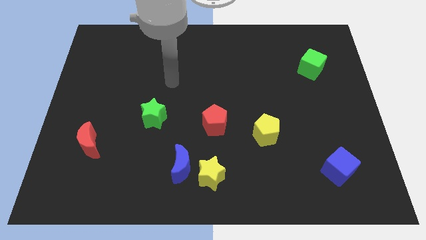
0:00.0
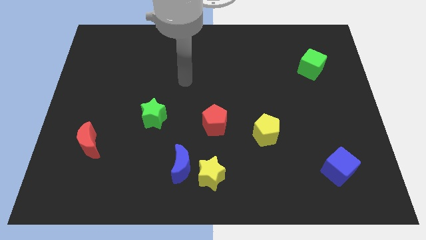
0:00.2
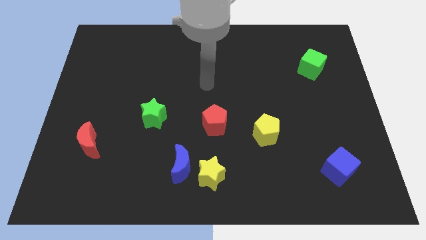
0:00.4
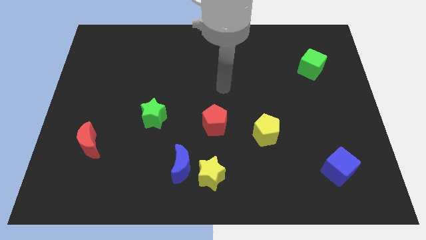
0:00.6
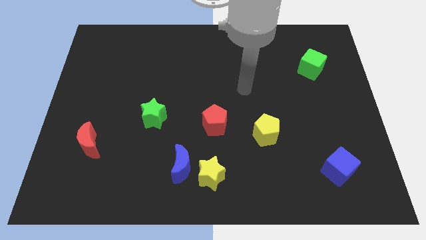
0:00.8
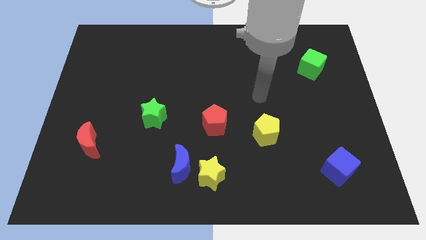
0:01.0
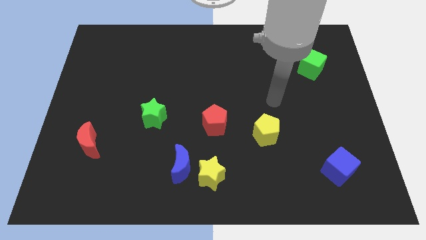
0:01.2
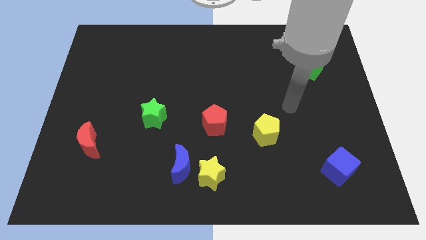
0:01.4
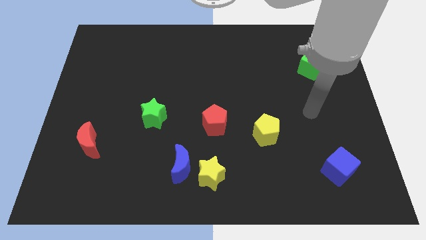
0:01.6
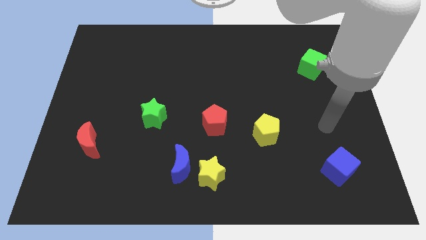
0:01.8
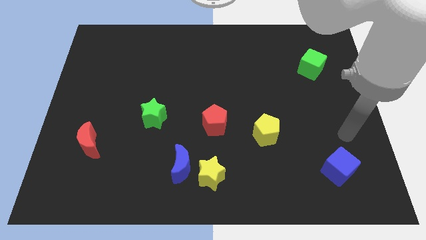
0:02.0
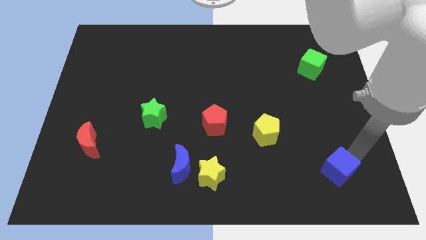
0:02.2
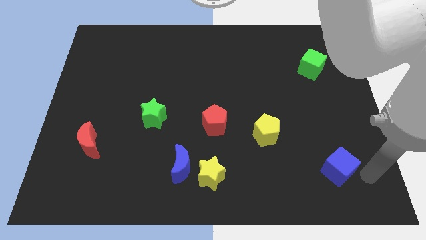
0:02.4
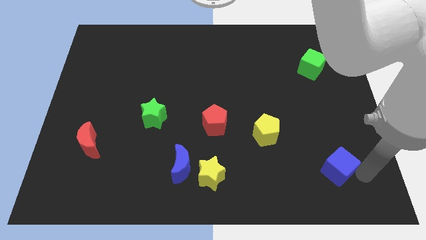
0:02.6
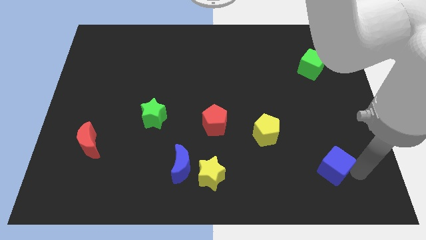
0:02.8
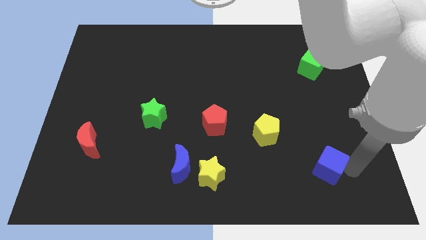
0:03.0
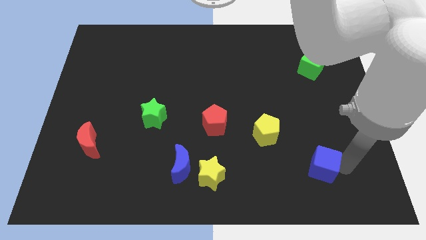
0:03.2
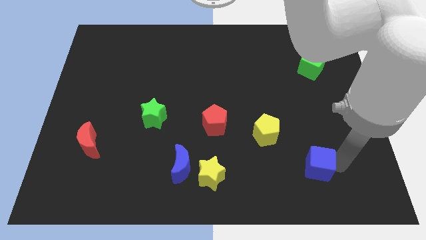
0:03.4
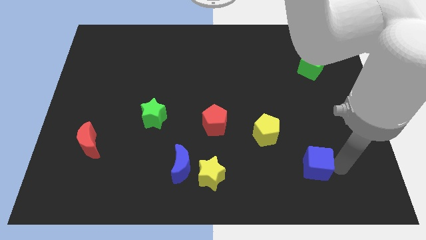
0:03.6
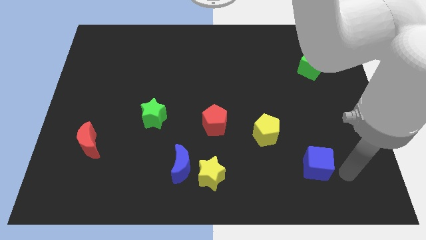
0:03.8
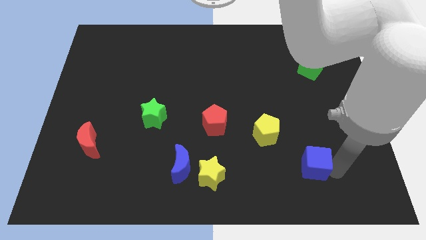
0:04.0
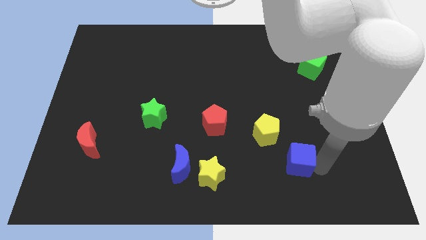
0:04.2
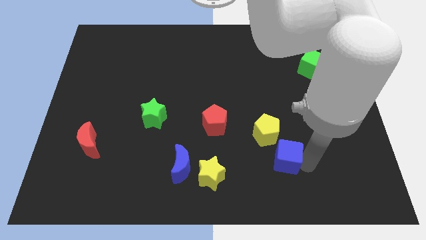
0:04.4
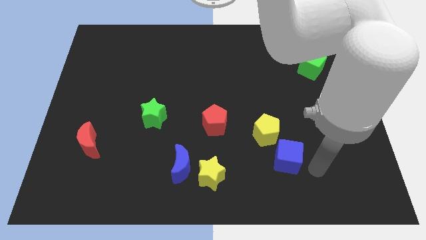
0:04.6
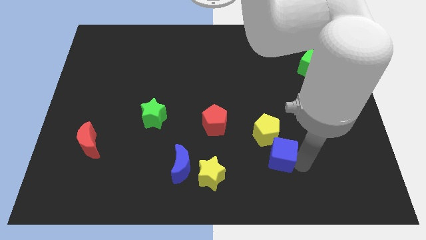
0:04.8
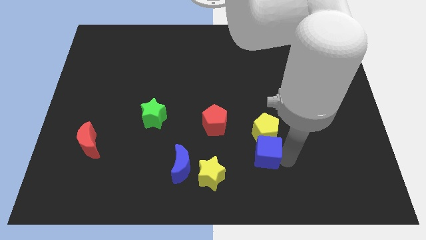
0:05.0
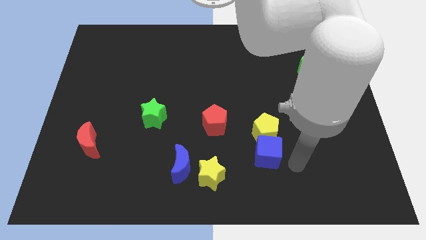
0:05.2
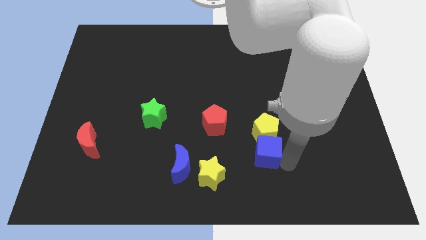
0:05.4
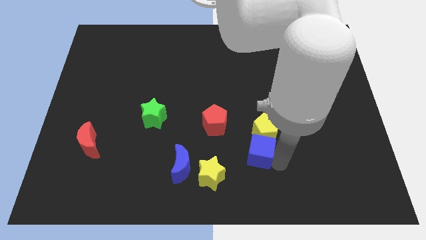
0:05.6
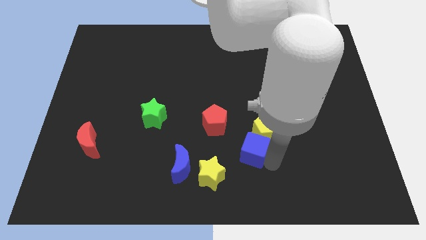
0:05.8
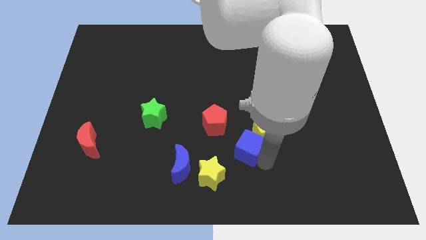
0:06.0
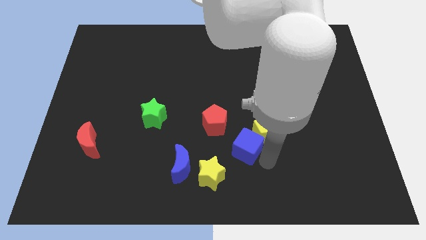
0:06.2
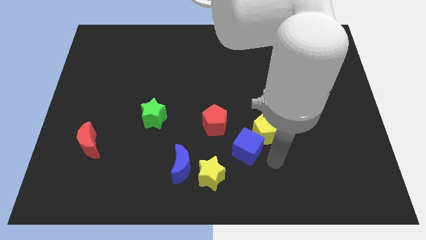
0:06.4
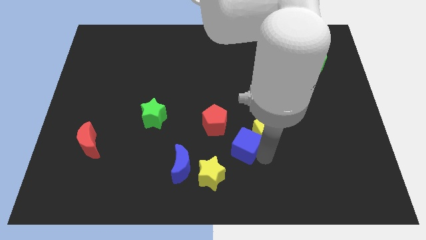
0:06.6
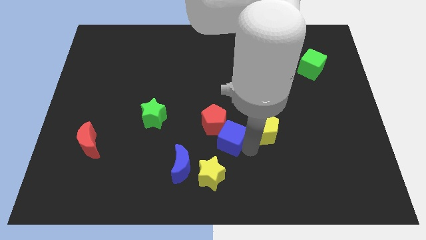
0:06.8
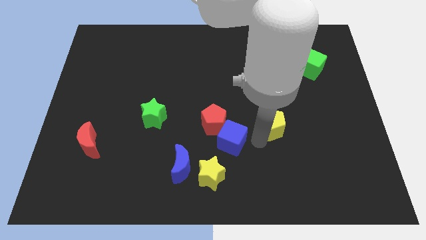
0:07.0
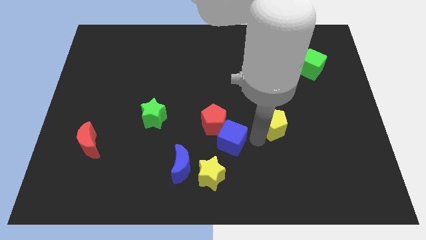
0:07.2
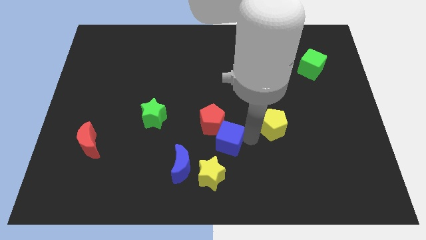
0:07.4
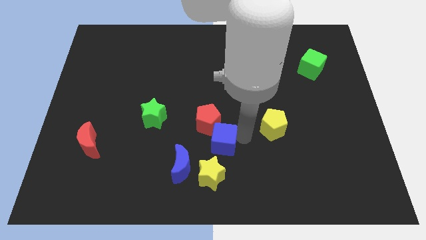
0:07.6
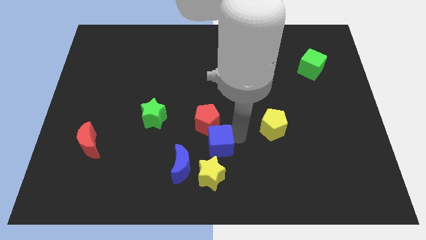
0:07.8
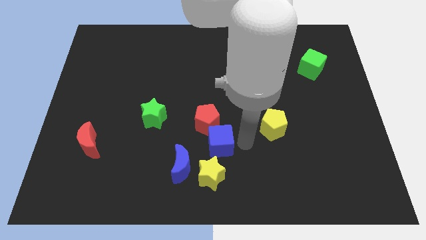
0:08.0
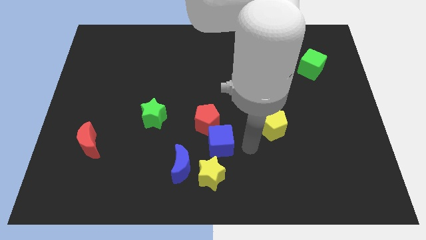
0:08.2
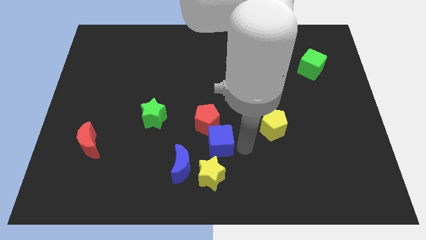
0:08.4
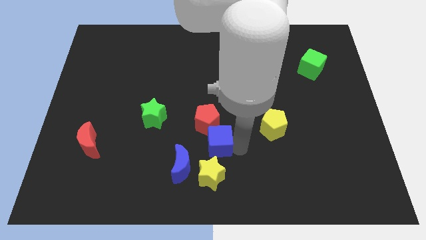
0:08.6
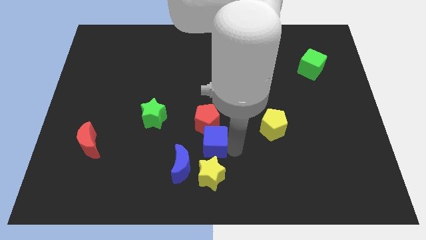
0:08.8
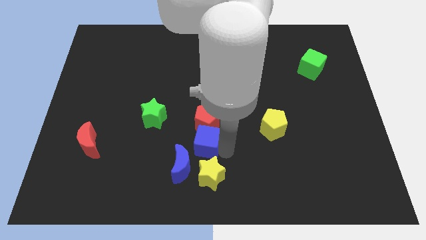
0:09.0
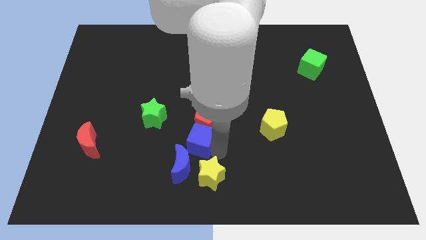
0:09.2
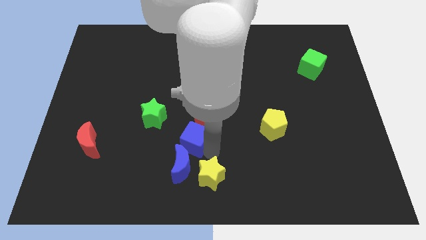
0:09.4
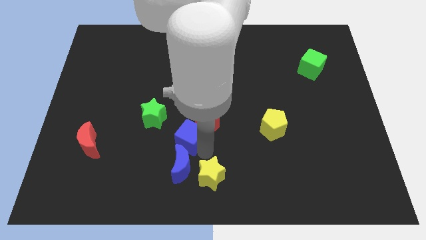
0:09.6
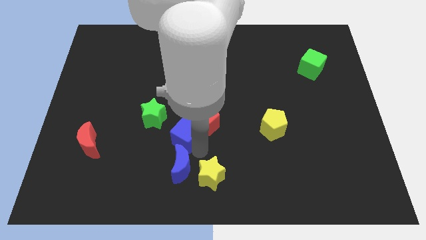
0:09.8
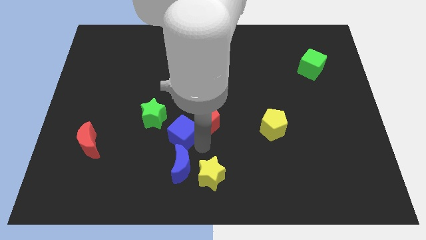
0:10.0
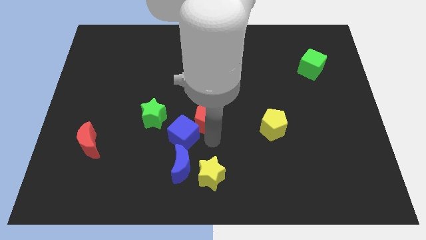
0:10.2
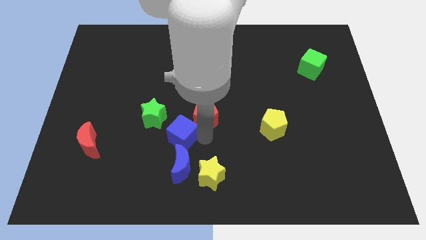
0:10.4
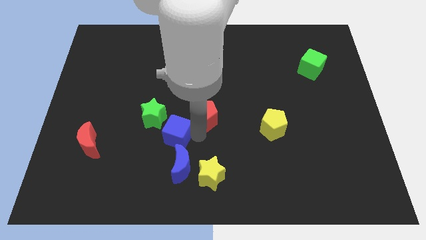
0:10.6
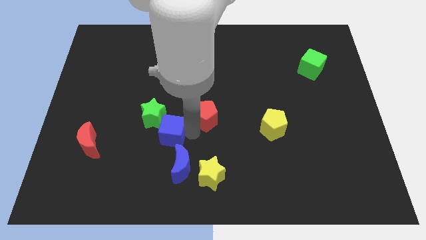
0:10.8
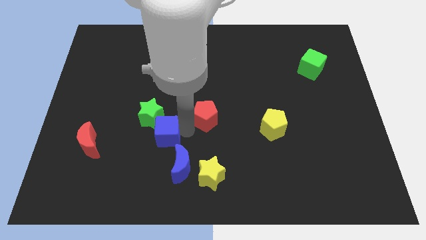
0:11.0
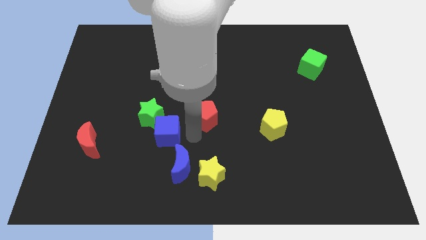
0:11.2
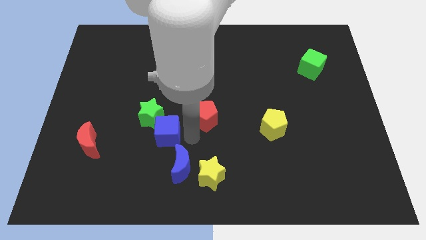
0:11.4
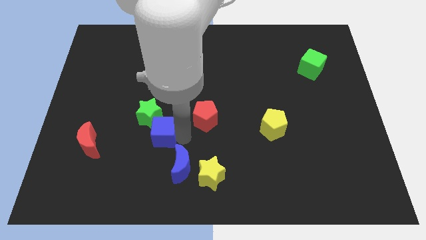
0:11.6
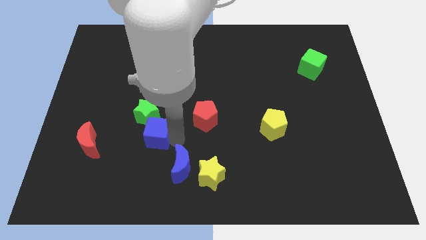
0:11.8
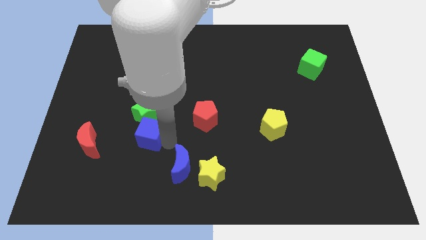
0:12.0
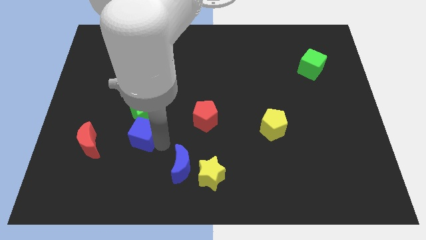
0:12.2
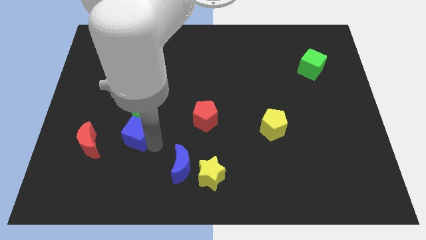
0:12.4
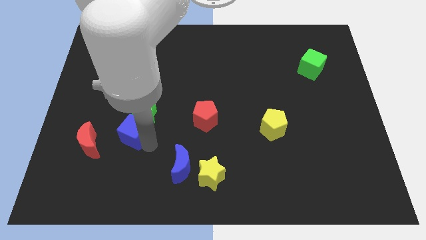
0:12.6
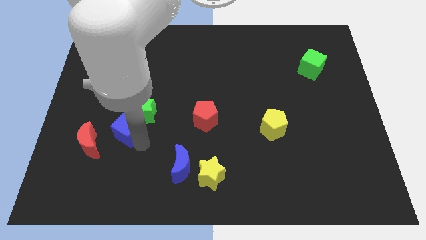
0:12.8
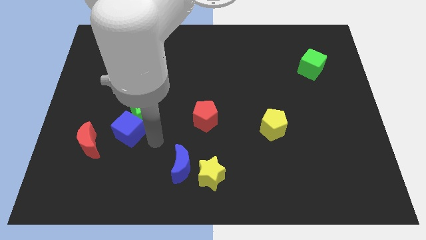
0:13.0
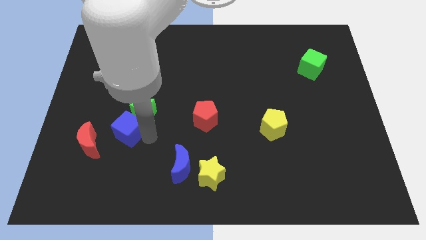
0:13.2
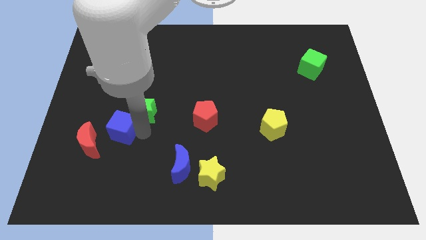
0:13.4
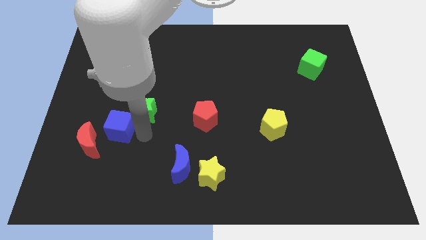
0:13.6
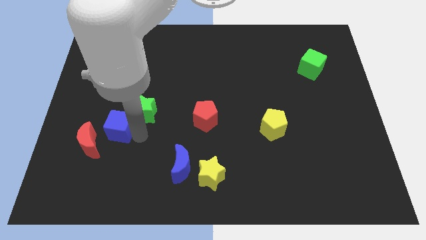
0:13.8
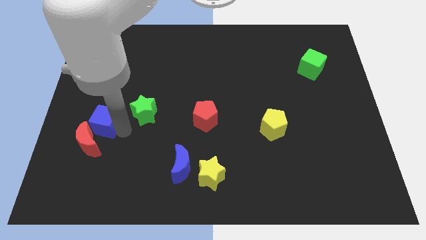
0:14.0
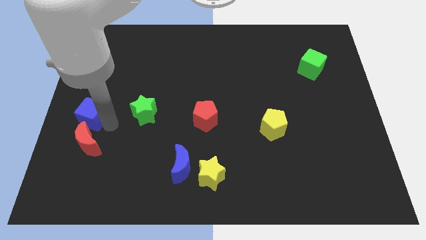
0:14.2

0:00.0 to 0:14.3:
put the blue cube to the center left
